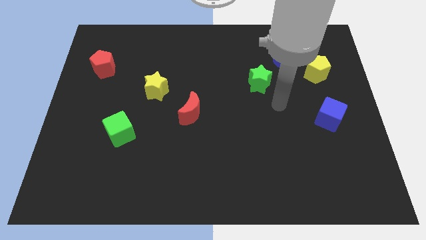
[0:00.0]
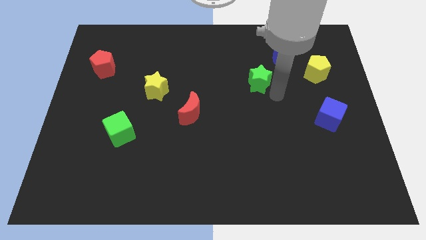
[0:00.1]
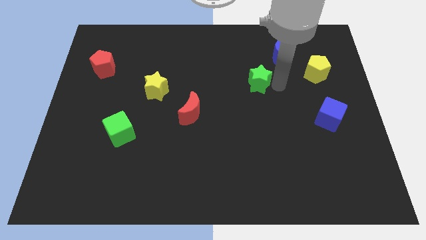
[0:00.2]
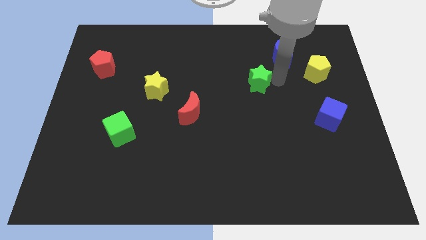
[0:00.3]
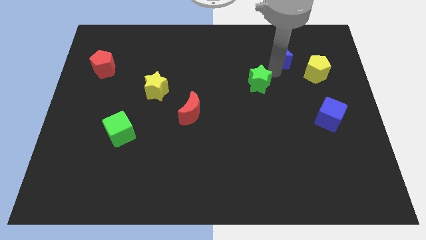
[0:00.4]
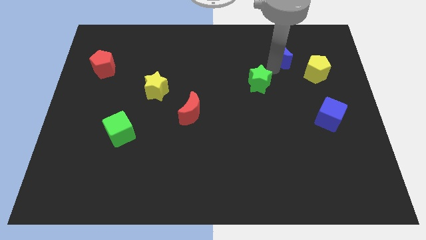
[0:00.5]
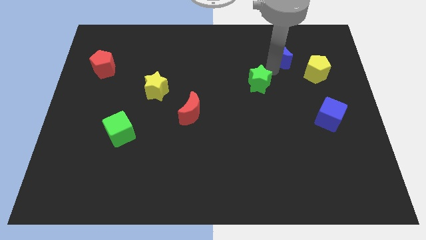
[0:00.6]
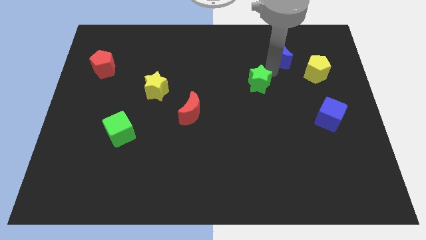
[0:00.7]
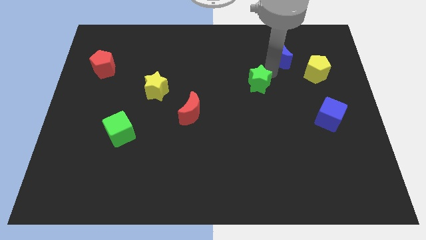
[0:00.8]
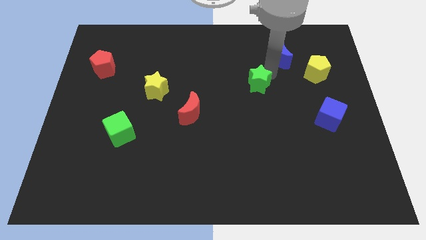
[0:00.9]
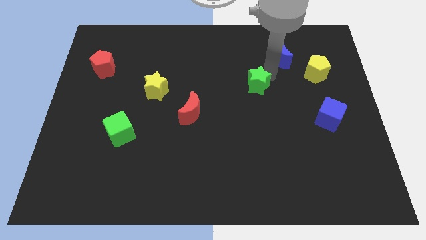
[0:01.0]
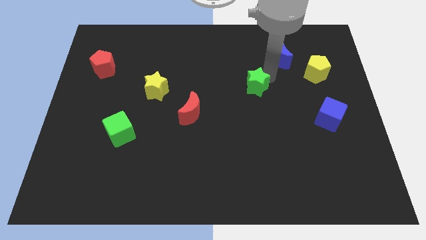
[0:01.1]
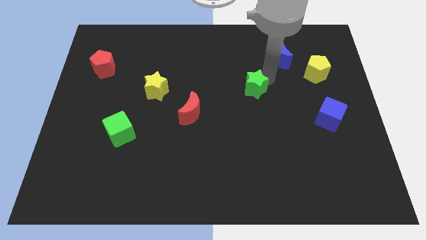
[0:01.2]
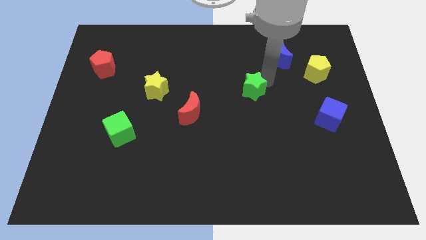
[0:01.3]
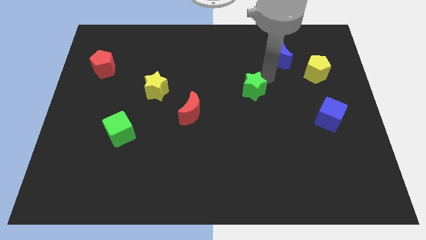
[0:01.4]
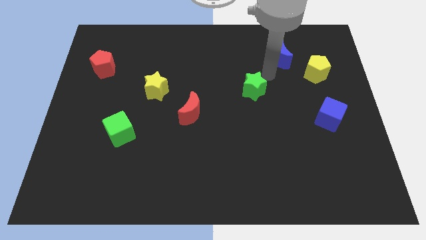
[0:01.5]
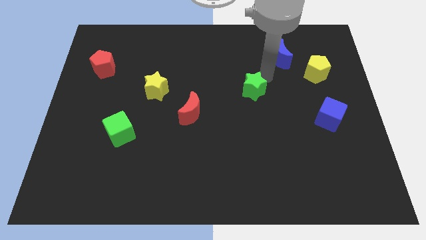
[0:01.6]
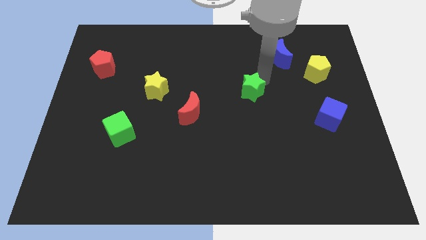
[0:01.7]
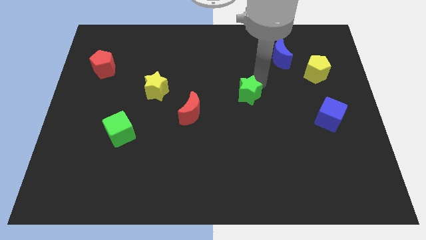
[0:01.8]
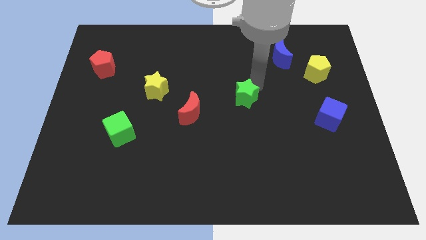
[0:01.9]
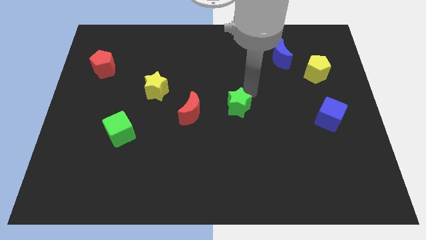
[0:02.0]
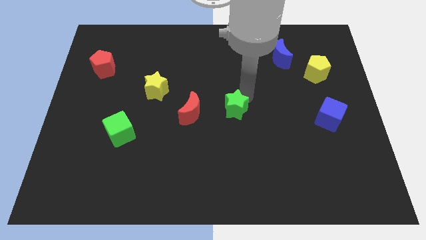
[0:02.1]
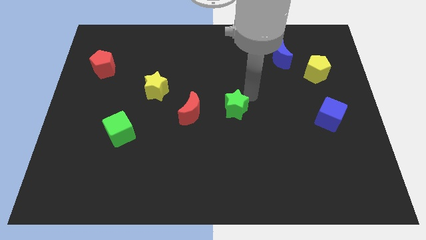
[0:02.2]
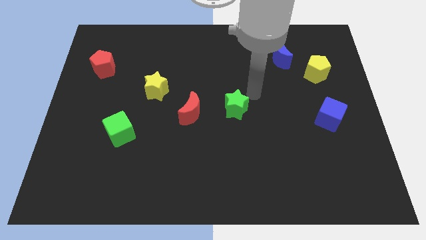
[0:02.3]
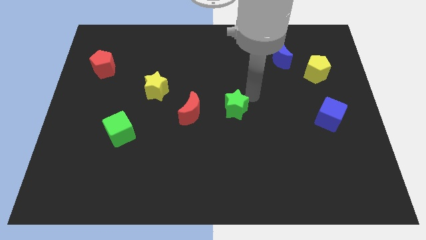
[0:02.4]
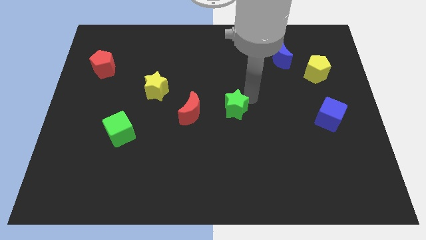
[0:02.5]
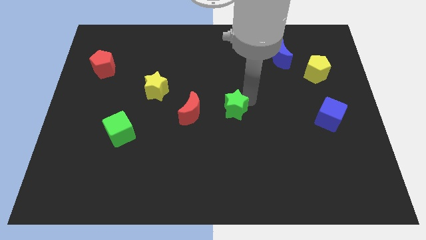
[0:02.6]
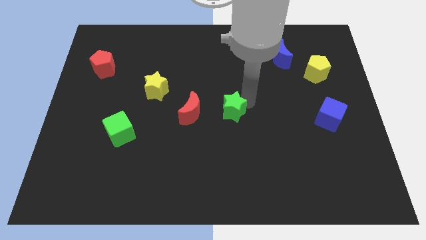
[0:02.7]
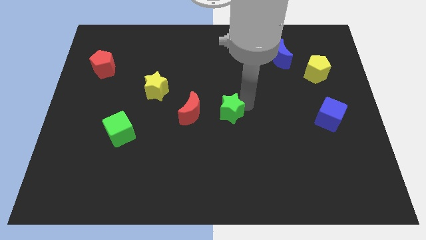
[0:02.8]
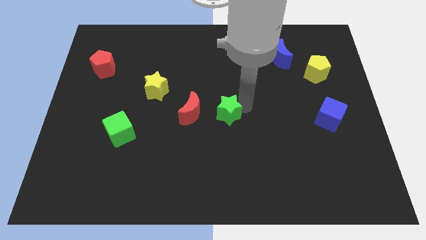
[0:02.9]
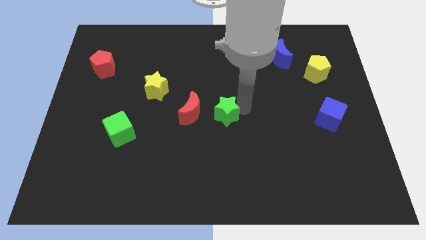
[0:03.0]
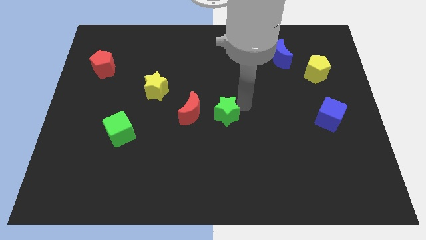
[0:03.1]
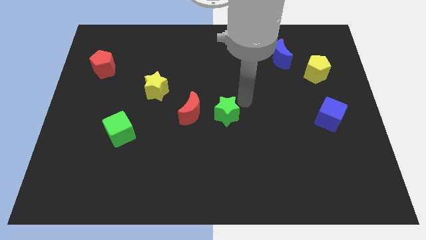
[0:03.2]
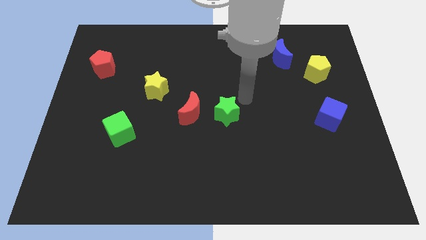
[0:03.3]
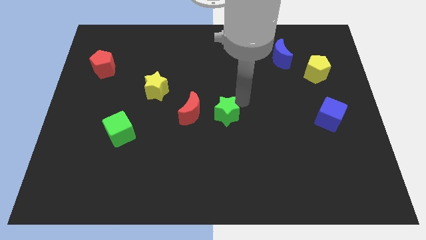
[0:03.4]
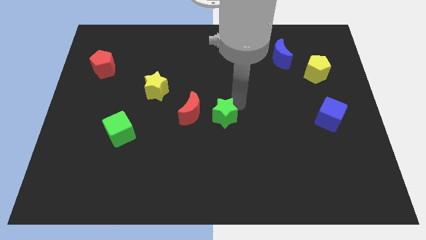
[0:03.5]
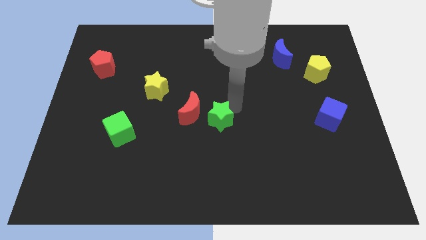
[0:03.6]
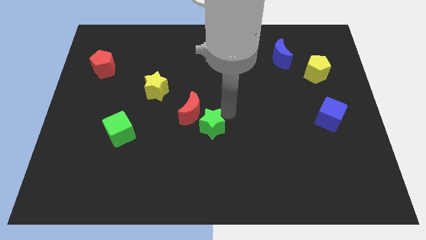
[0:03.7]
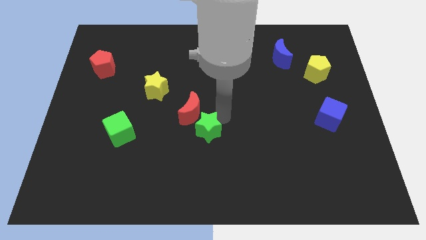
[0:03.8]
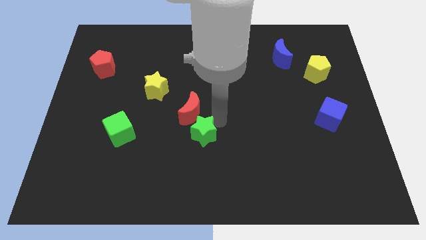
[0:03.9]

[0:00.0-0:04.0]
move the green star down and then left

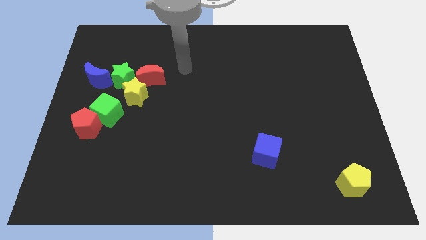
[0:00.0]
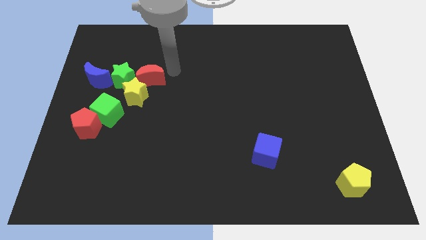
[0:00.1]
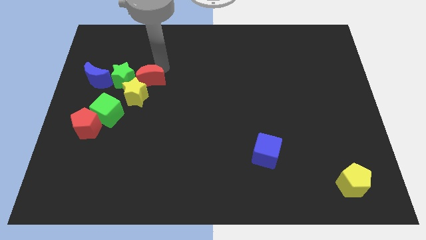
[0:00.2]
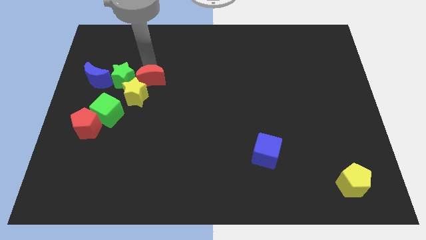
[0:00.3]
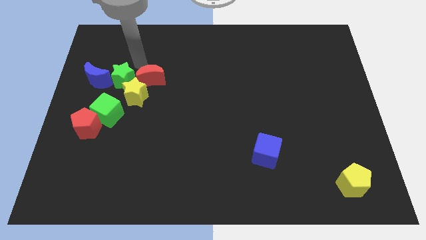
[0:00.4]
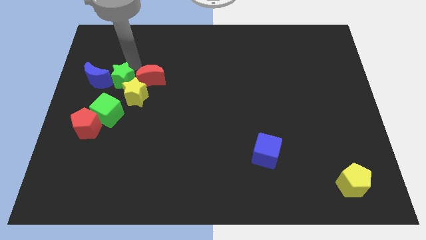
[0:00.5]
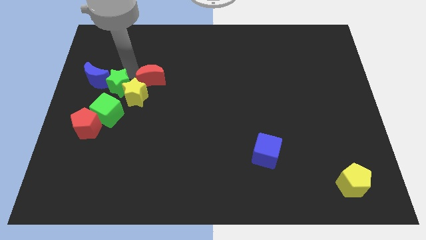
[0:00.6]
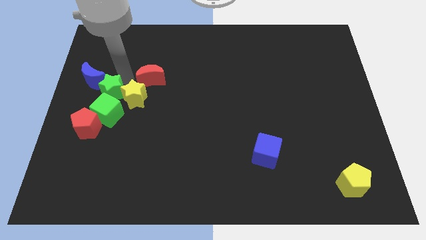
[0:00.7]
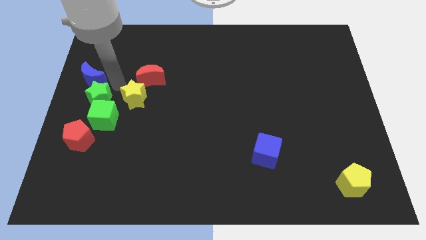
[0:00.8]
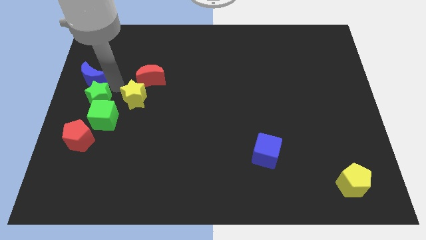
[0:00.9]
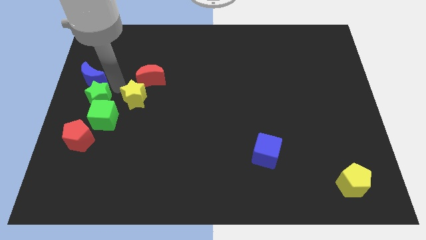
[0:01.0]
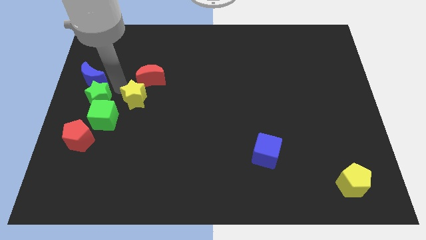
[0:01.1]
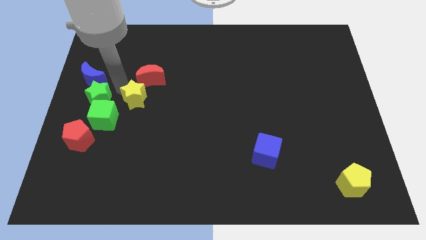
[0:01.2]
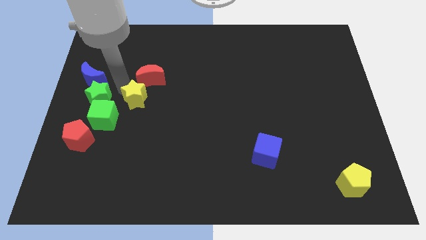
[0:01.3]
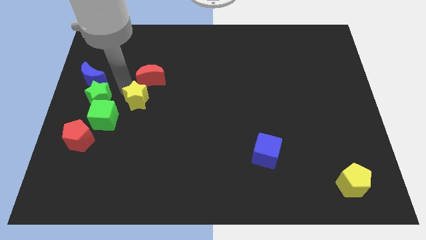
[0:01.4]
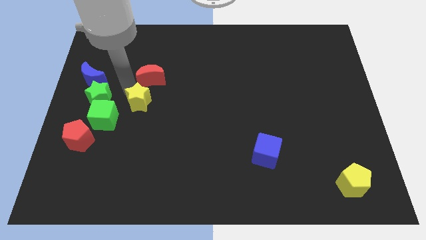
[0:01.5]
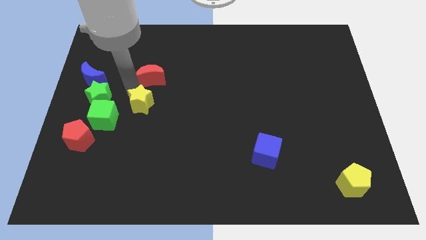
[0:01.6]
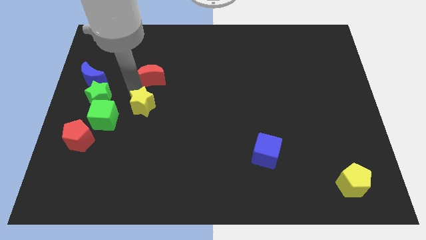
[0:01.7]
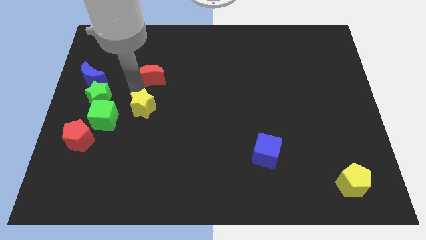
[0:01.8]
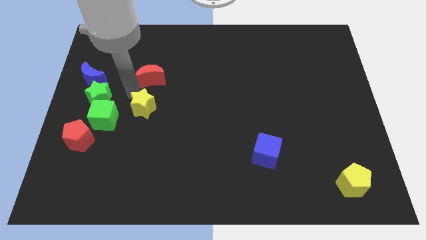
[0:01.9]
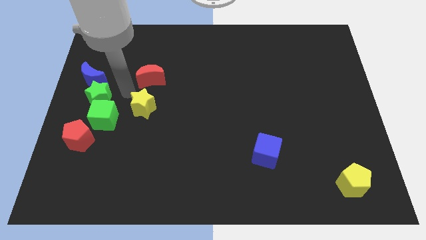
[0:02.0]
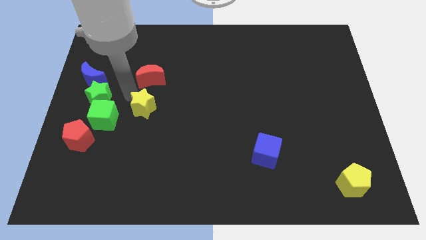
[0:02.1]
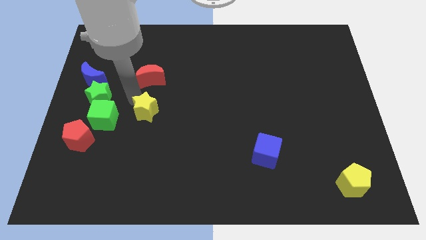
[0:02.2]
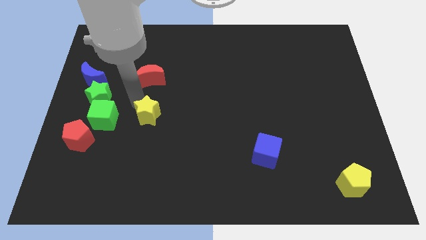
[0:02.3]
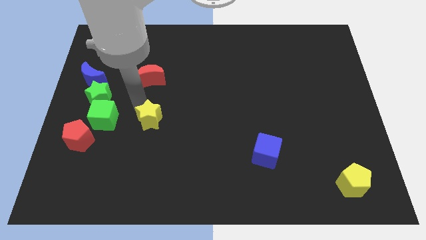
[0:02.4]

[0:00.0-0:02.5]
slide the yellow star down and then right a little bit

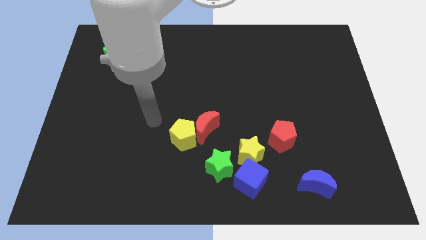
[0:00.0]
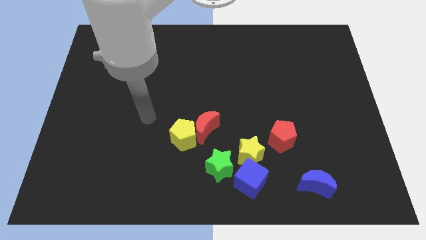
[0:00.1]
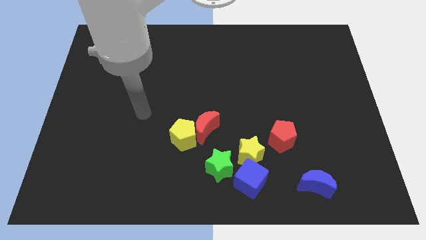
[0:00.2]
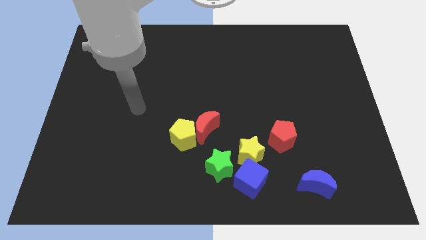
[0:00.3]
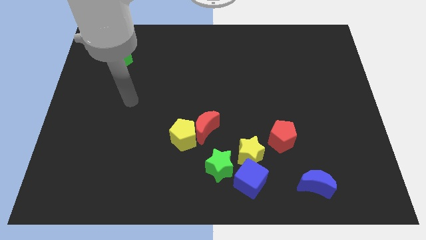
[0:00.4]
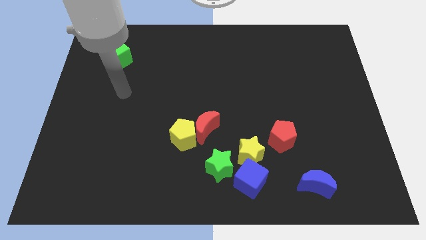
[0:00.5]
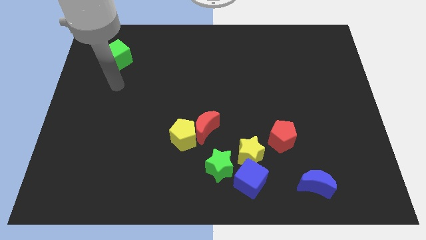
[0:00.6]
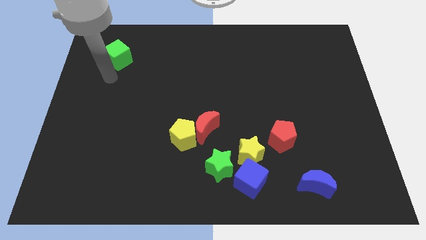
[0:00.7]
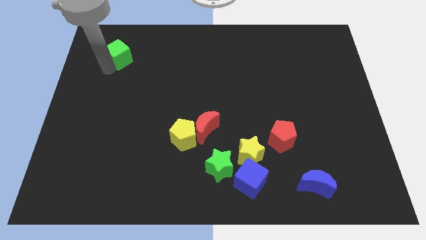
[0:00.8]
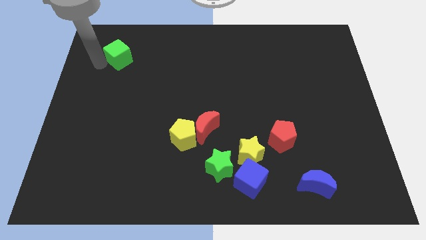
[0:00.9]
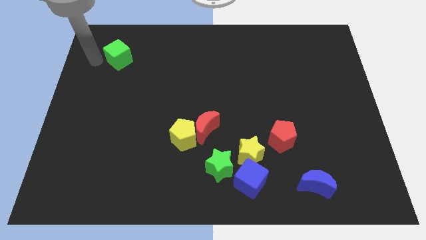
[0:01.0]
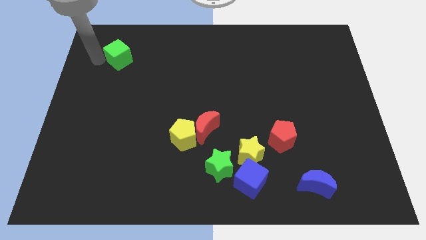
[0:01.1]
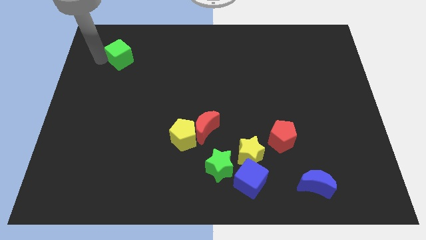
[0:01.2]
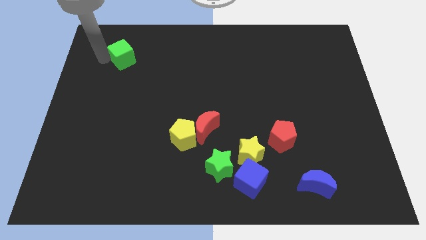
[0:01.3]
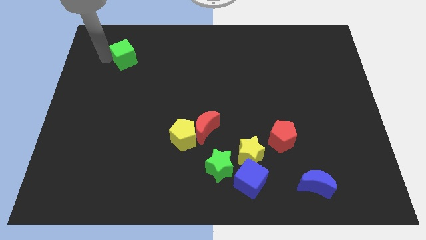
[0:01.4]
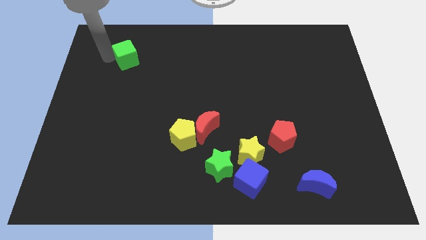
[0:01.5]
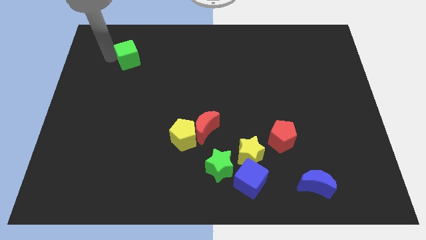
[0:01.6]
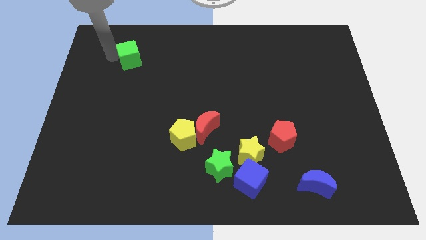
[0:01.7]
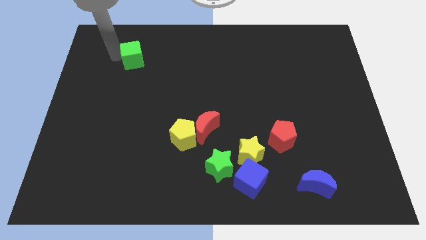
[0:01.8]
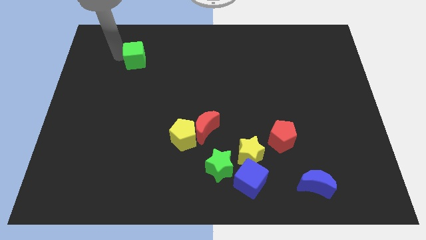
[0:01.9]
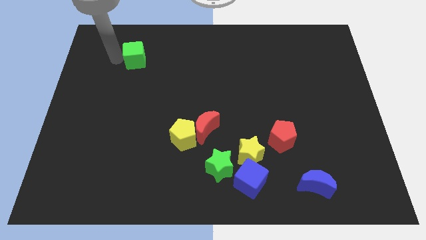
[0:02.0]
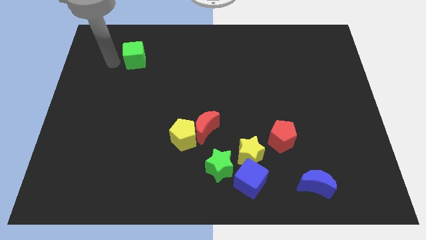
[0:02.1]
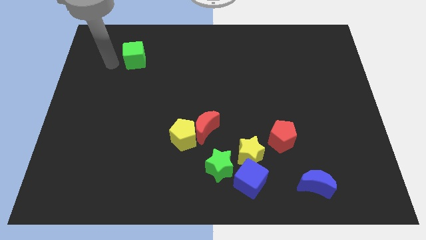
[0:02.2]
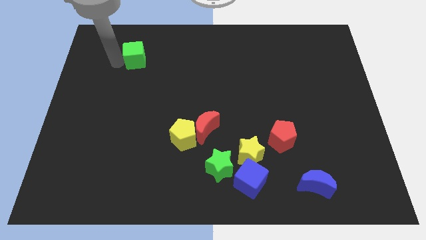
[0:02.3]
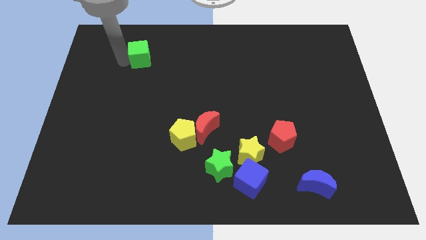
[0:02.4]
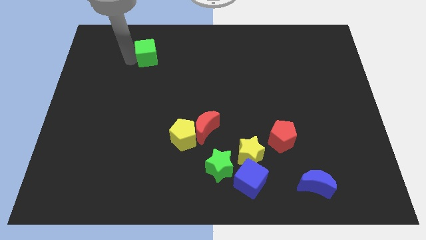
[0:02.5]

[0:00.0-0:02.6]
slide the green cube a little to the right
